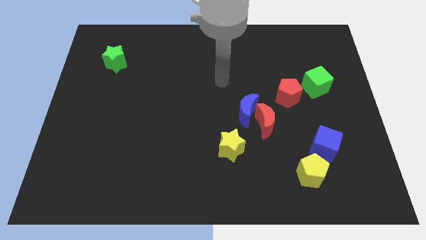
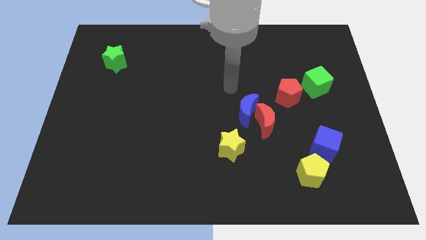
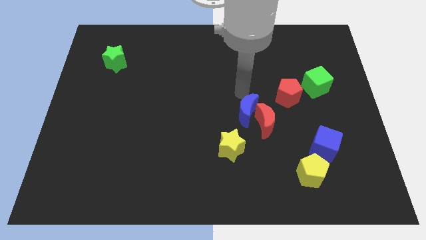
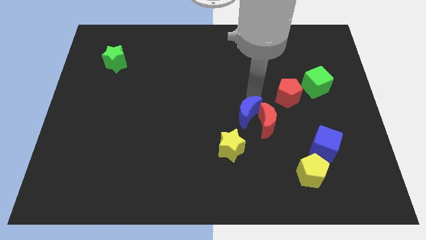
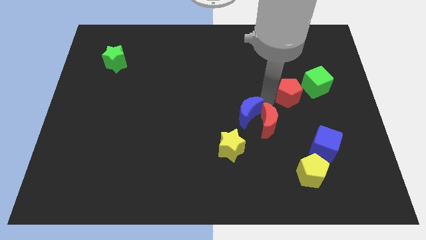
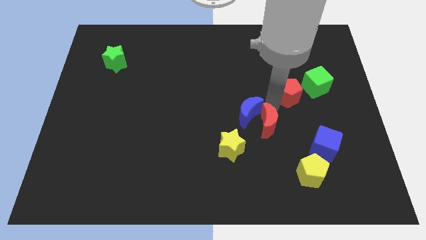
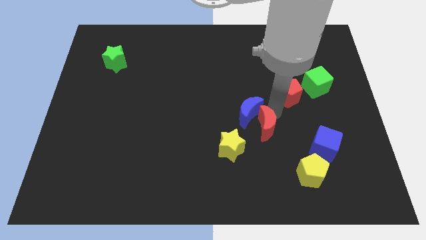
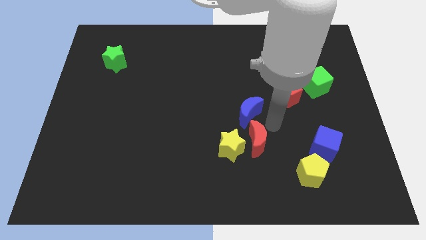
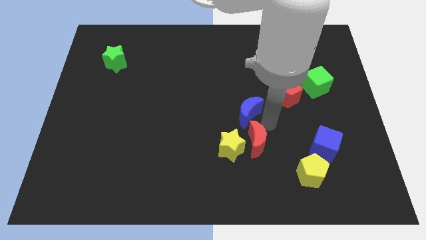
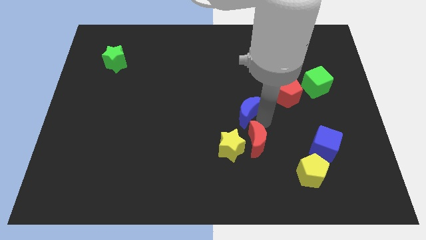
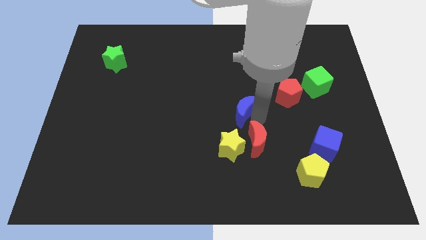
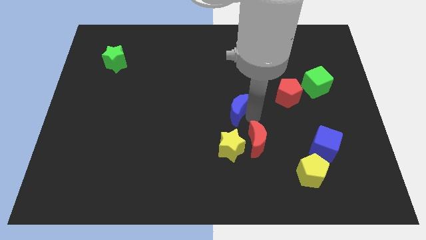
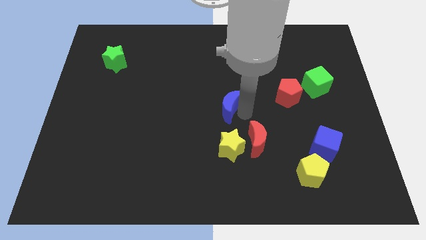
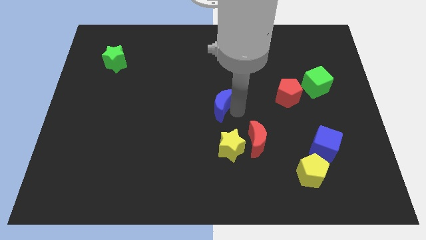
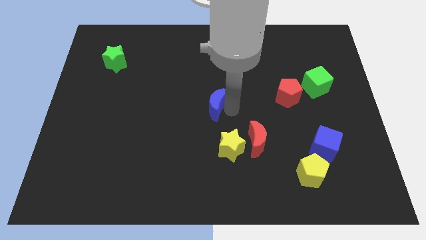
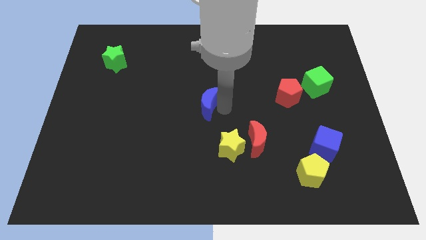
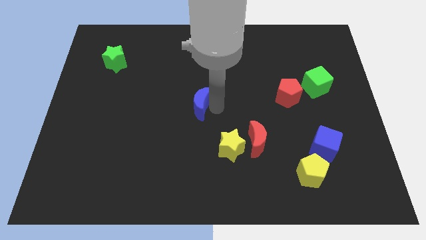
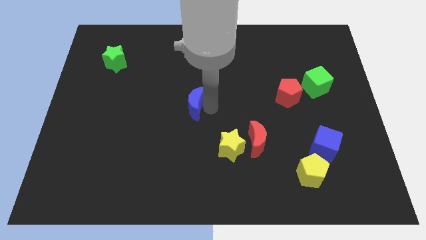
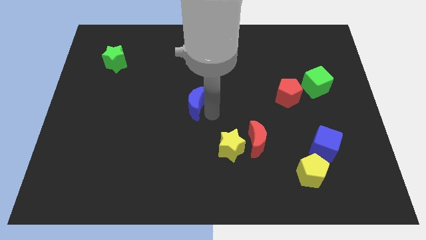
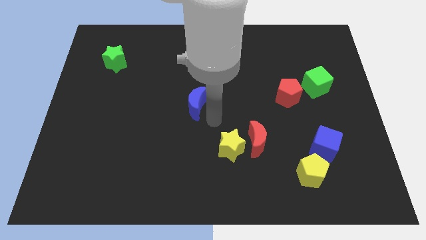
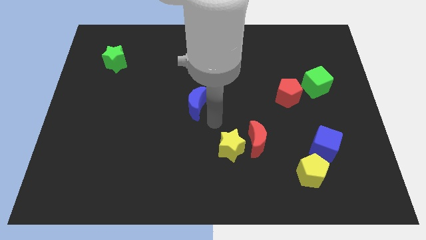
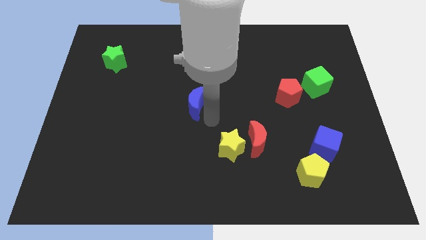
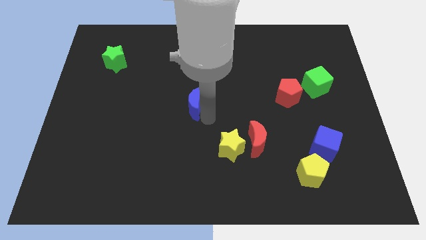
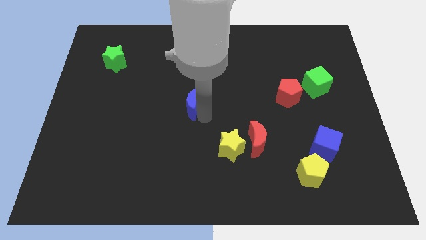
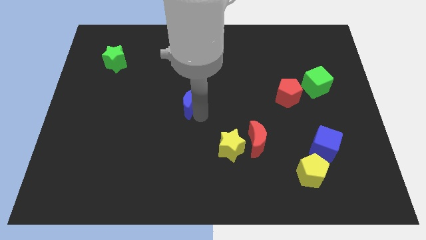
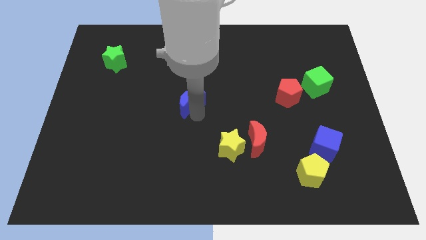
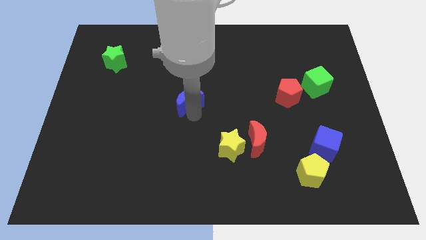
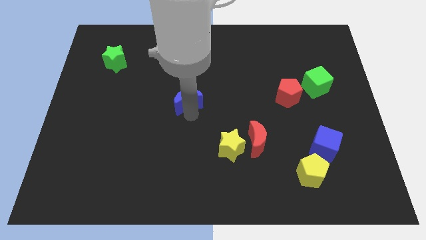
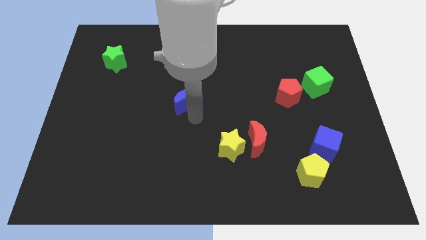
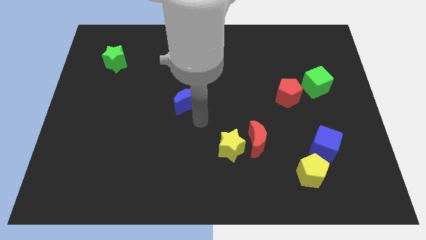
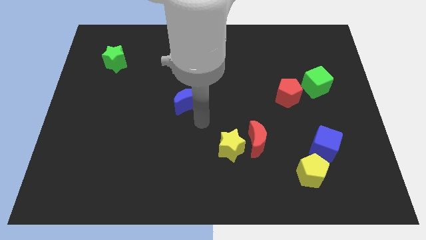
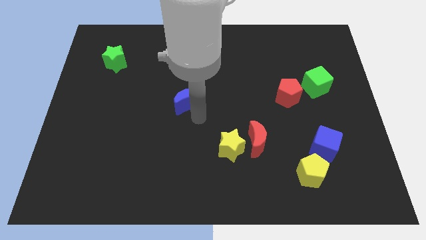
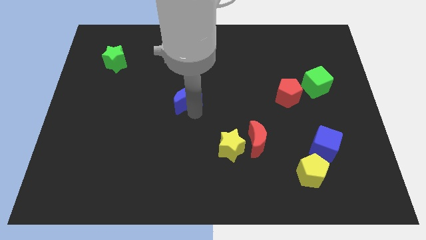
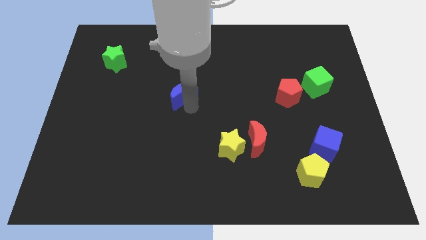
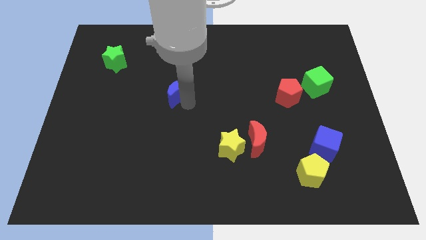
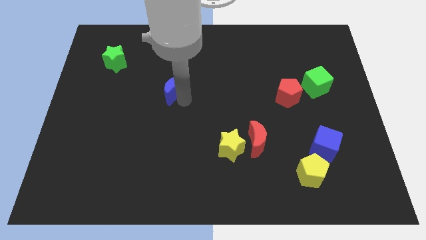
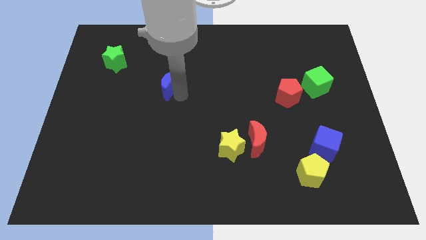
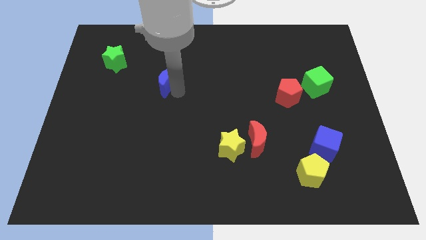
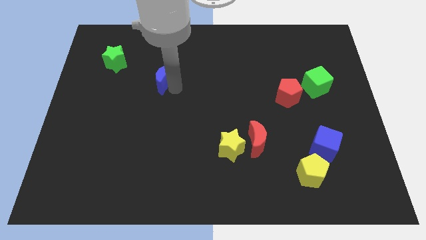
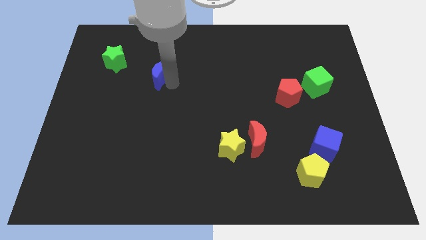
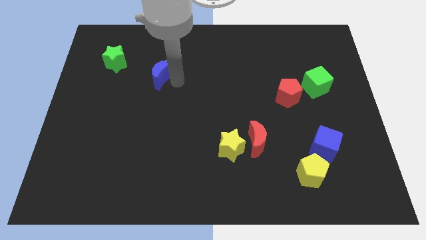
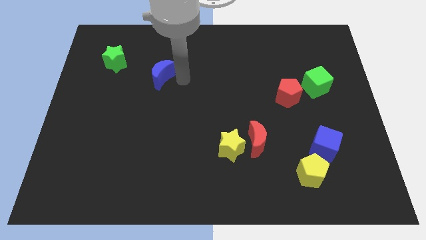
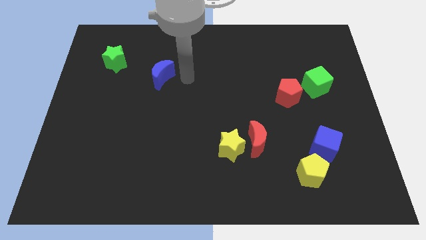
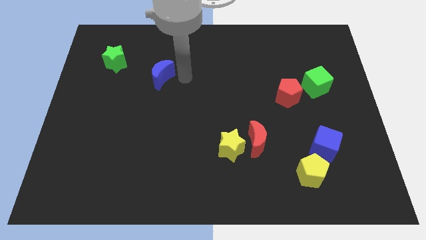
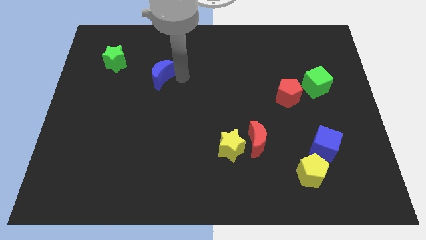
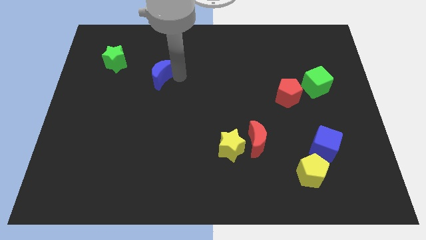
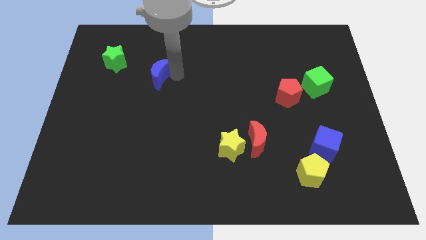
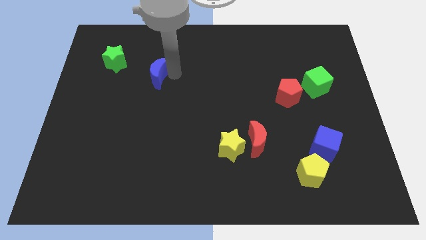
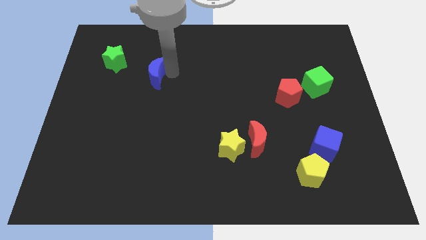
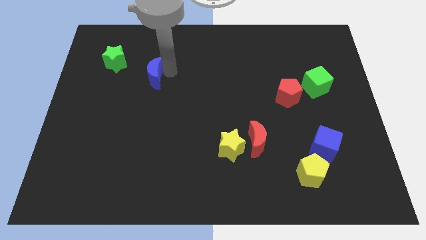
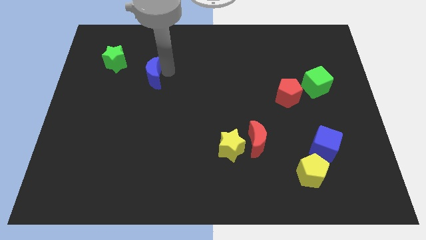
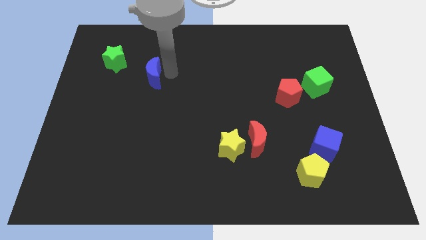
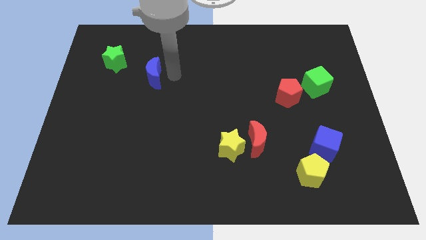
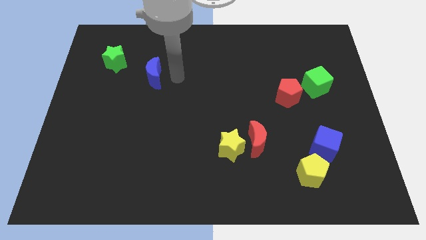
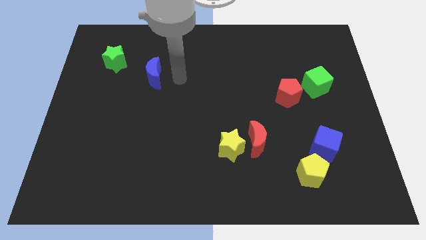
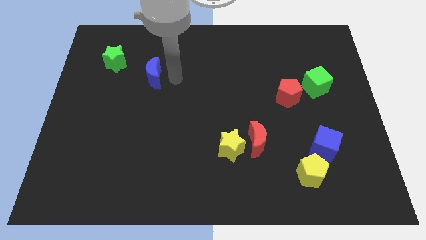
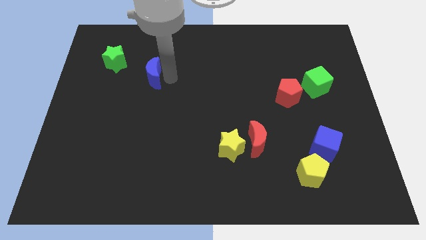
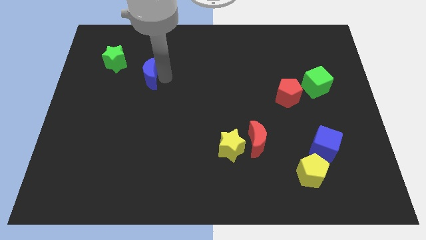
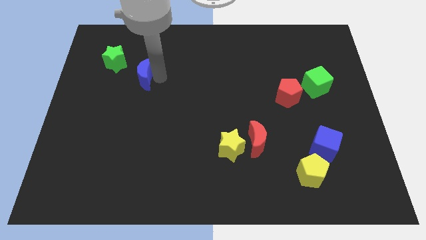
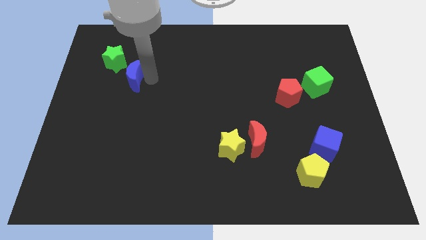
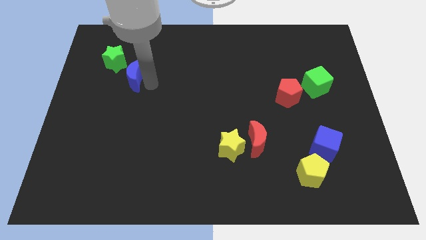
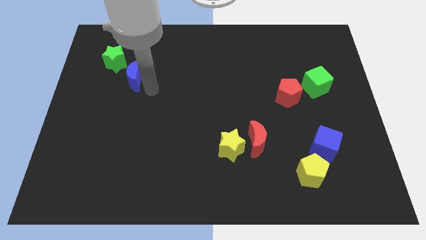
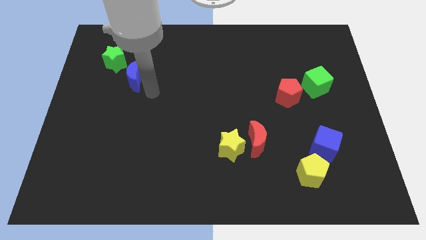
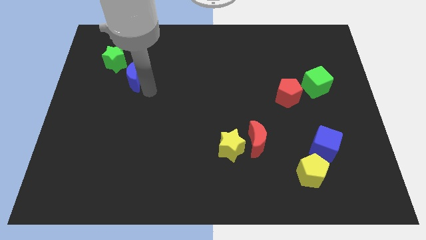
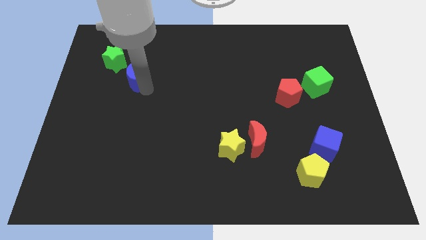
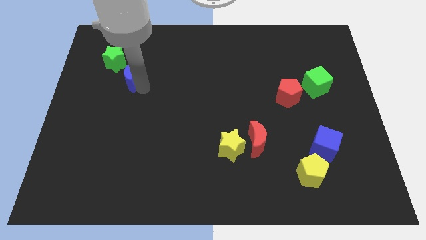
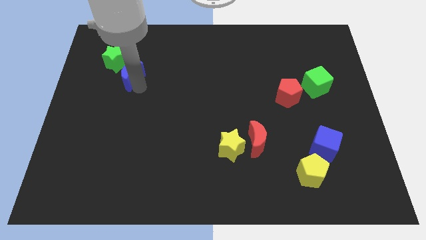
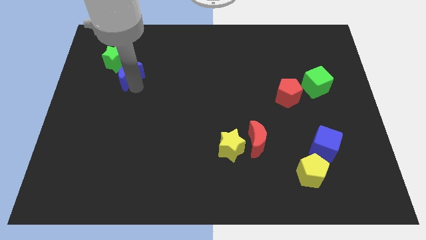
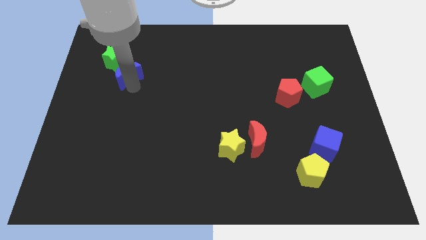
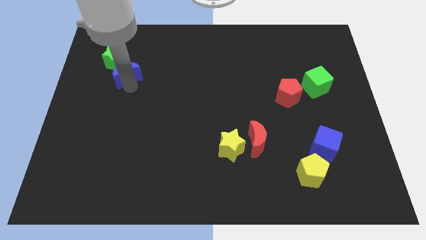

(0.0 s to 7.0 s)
slide the blue moon close to the green star
